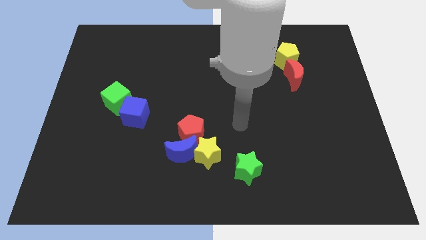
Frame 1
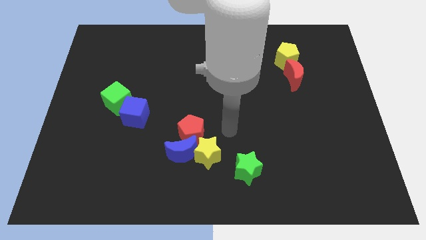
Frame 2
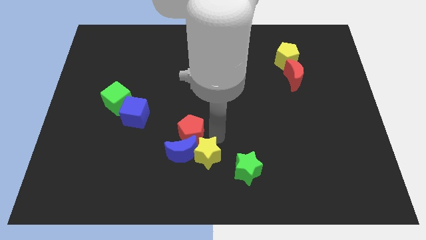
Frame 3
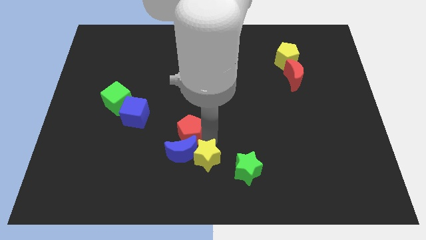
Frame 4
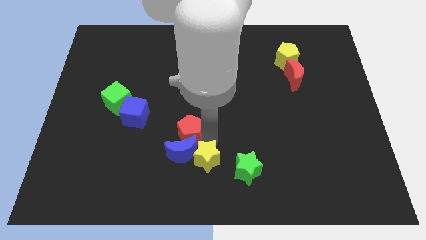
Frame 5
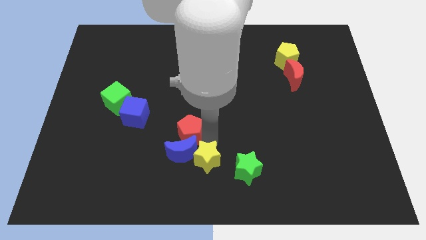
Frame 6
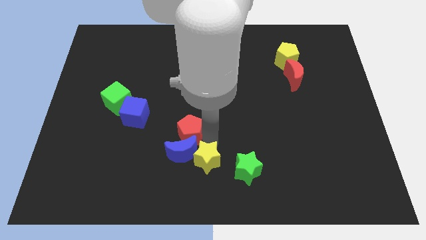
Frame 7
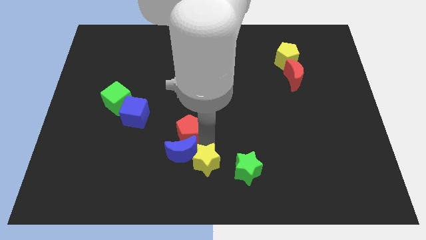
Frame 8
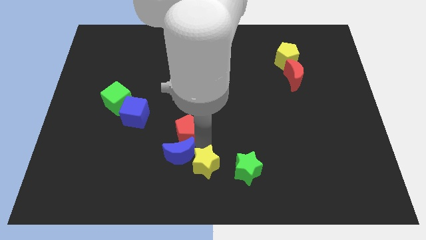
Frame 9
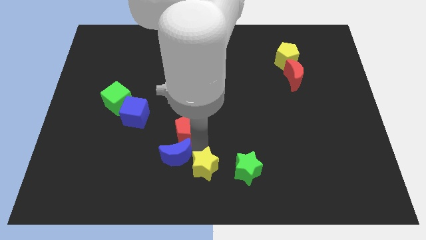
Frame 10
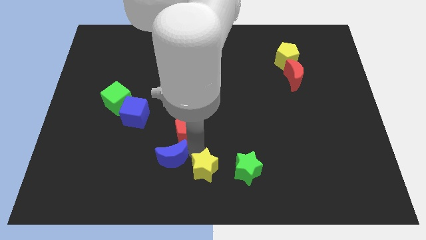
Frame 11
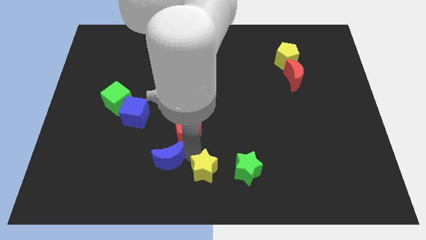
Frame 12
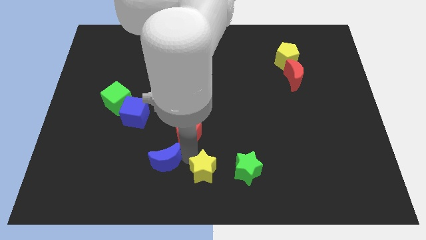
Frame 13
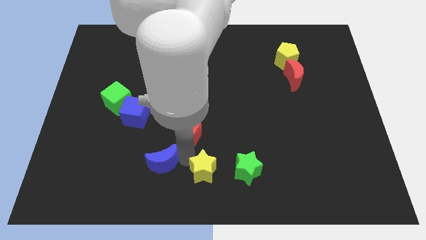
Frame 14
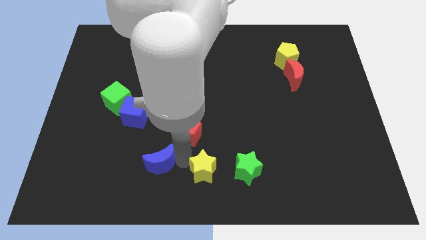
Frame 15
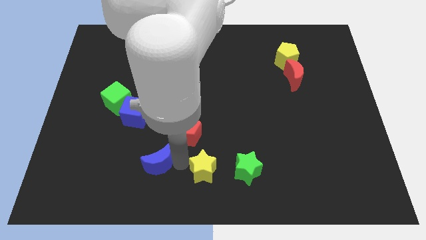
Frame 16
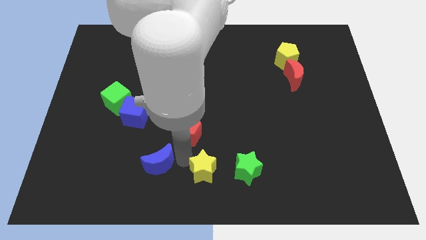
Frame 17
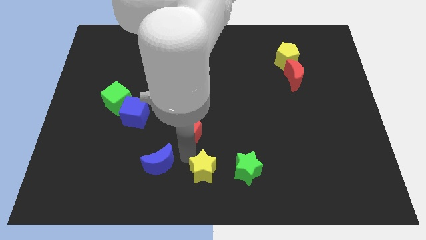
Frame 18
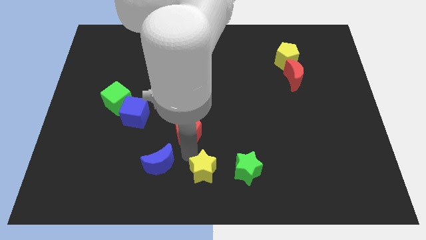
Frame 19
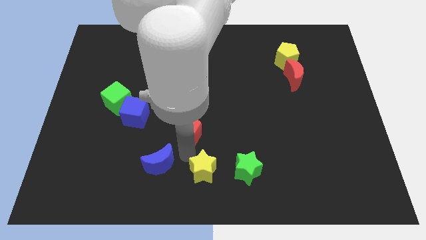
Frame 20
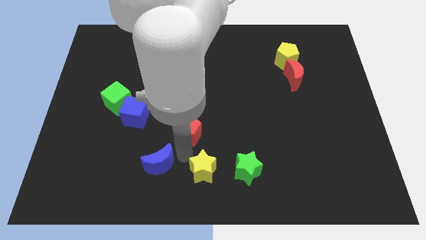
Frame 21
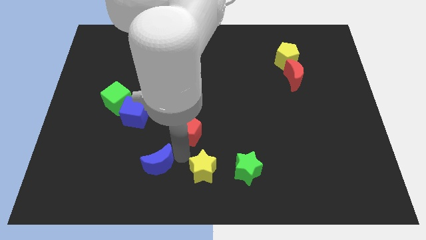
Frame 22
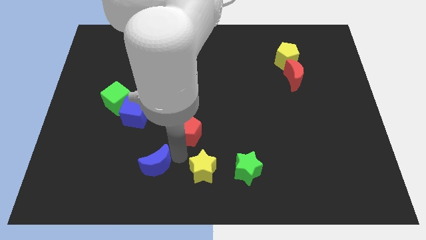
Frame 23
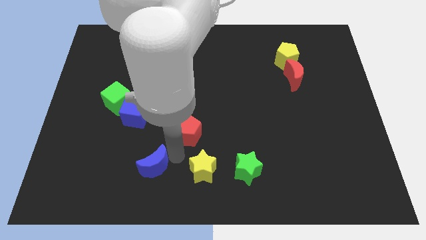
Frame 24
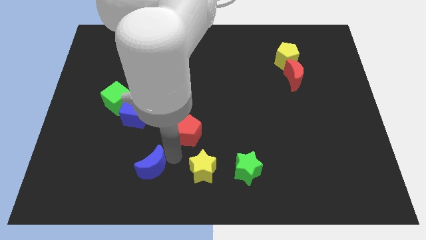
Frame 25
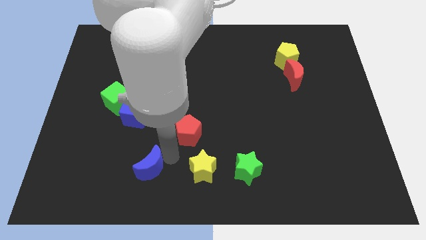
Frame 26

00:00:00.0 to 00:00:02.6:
separate the blue moon from the red pentagon and yellow star

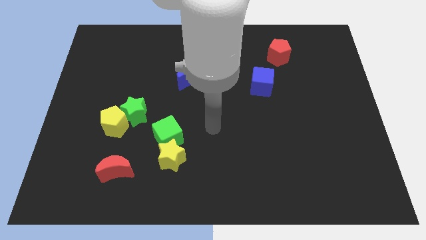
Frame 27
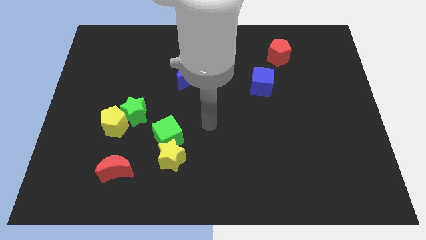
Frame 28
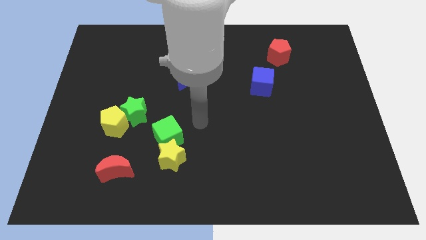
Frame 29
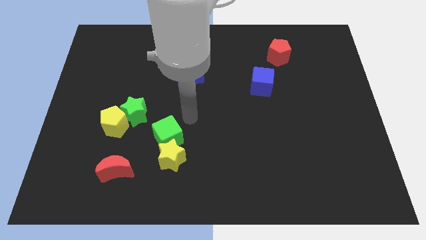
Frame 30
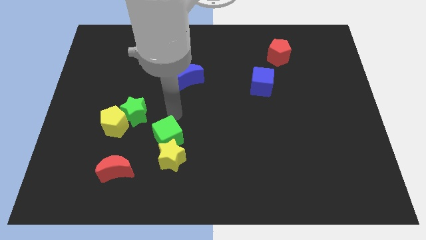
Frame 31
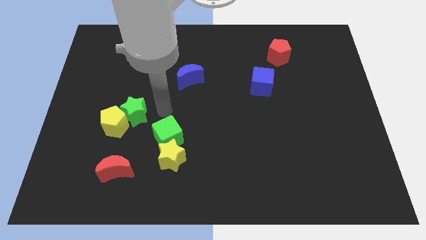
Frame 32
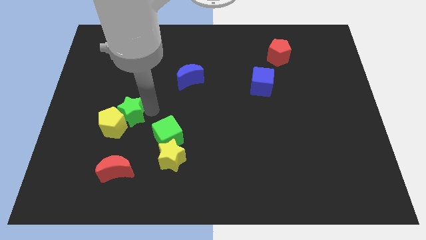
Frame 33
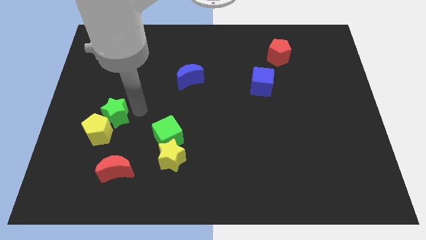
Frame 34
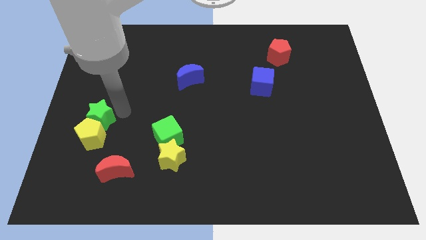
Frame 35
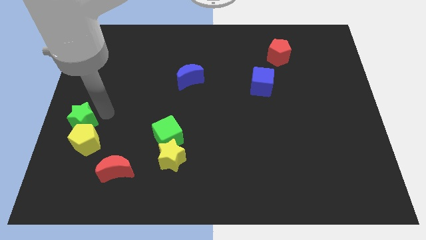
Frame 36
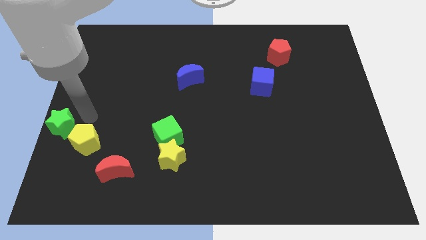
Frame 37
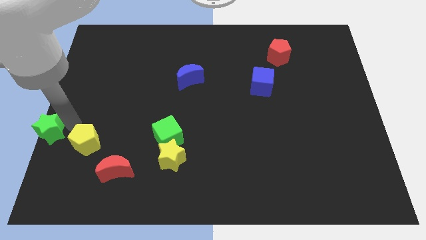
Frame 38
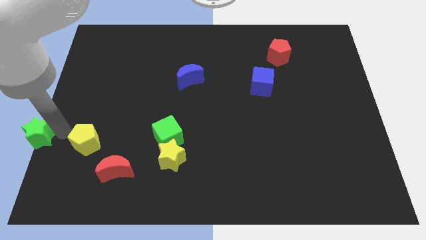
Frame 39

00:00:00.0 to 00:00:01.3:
pull the yellow pentagon apart from the green star

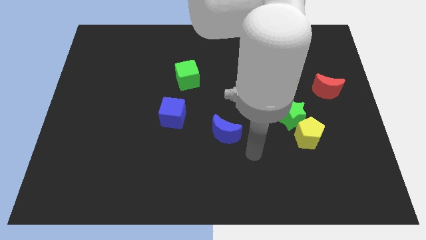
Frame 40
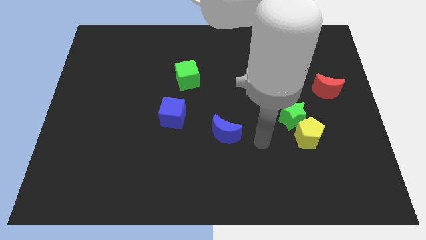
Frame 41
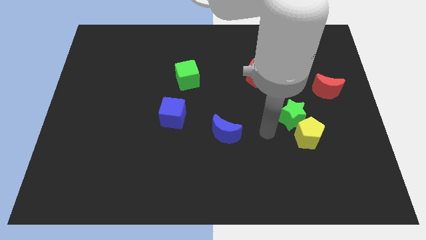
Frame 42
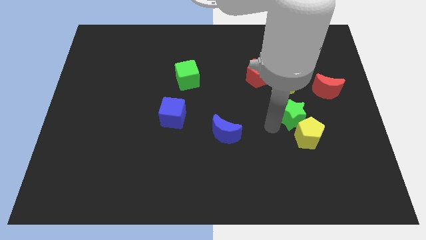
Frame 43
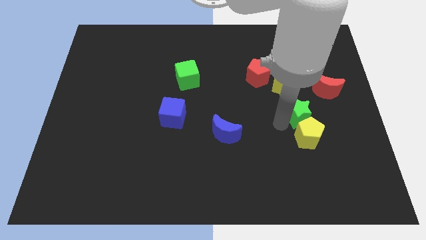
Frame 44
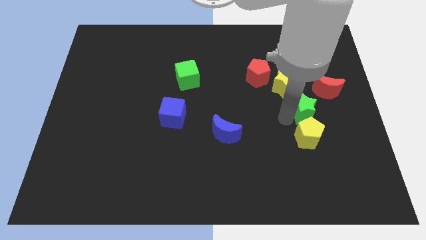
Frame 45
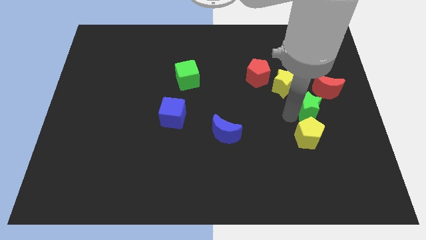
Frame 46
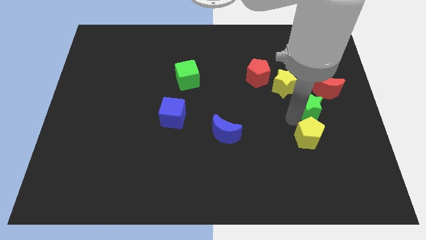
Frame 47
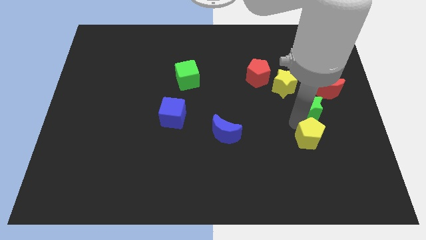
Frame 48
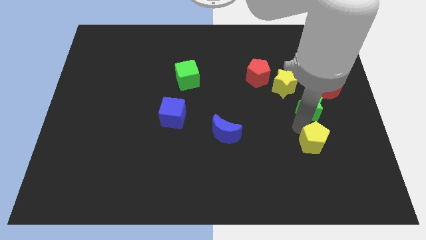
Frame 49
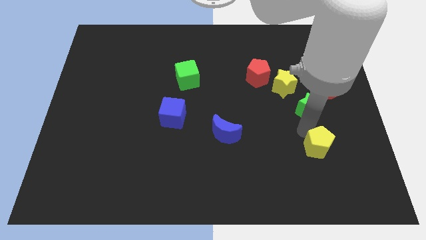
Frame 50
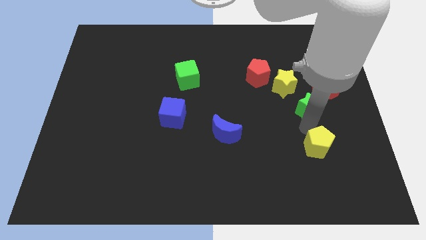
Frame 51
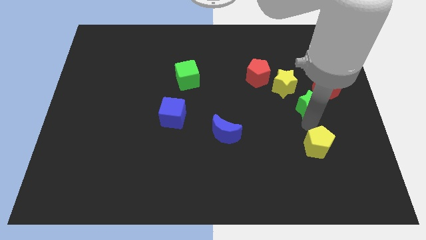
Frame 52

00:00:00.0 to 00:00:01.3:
separate the yellow pentagon from the green star

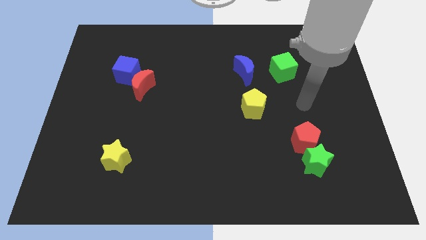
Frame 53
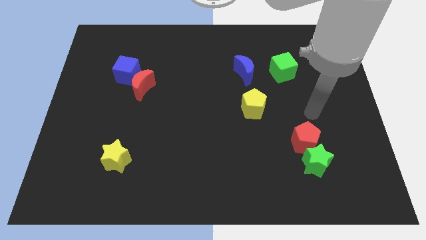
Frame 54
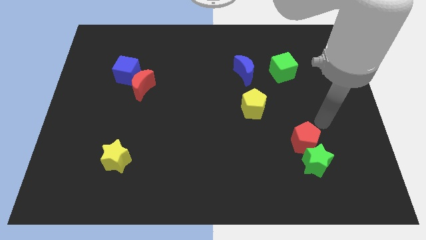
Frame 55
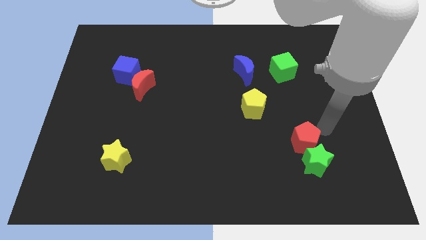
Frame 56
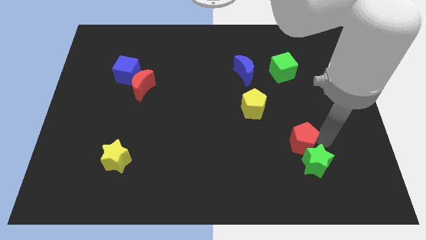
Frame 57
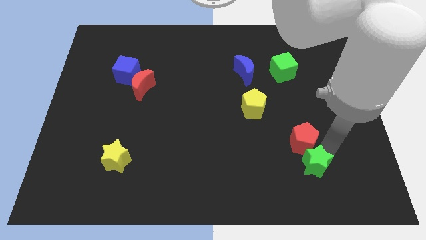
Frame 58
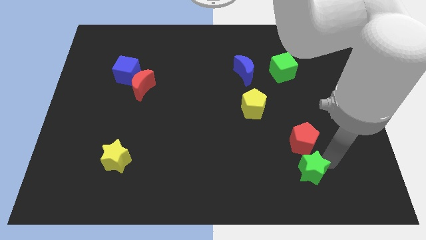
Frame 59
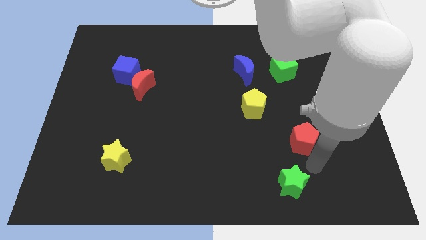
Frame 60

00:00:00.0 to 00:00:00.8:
pull the red pentagon apart from the green star

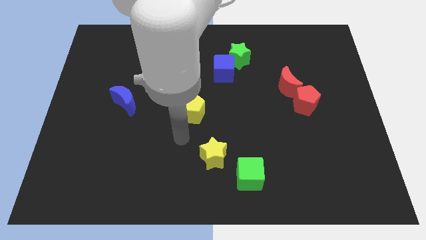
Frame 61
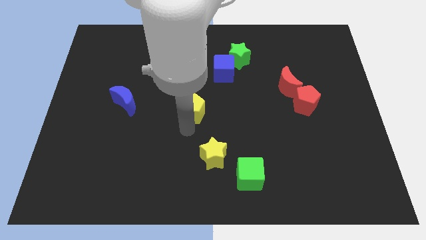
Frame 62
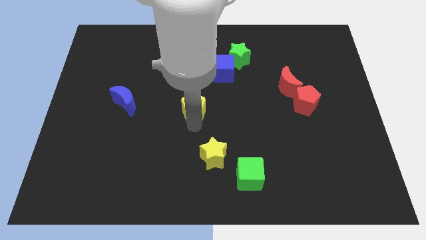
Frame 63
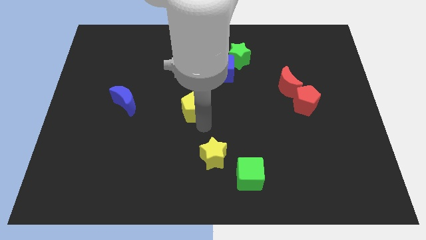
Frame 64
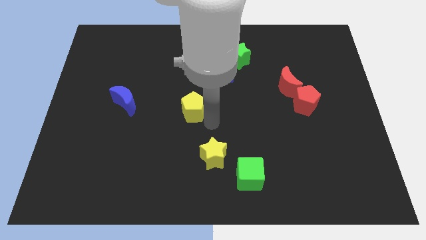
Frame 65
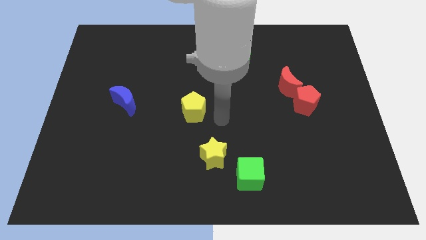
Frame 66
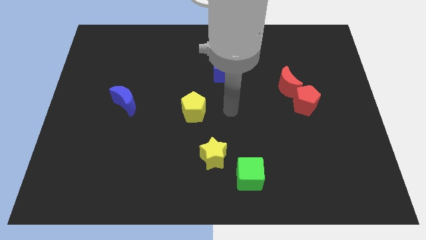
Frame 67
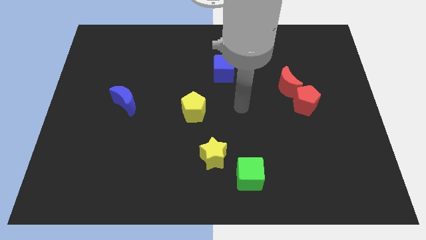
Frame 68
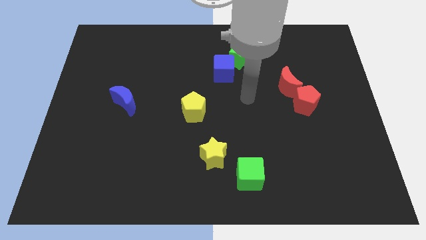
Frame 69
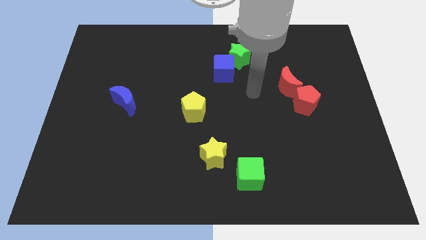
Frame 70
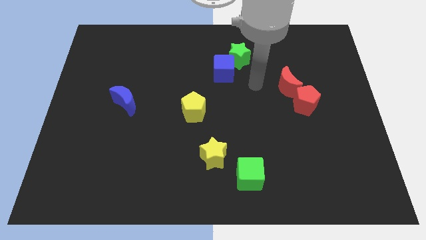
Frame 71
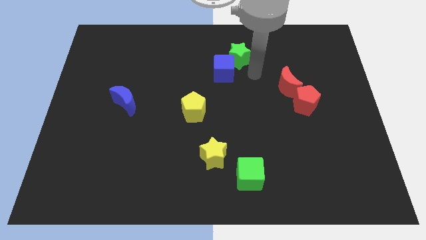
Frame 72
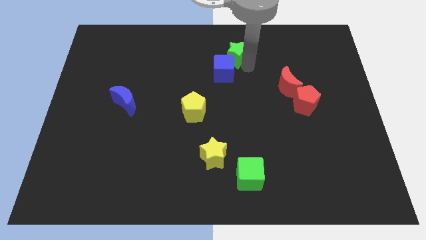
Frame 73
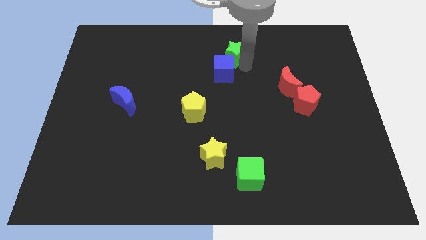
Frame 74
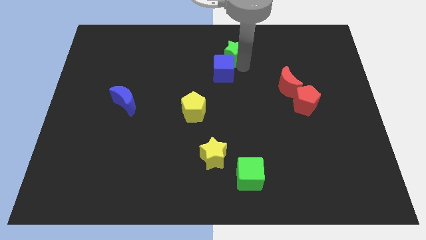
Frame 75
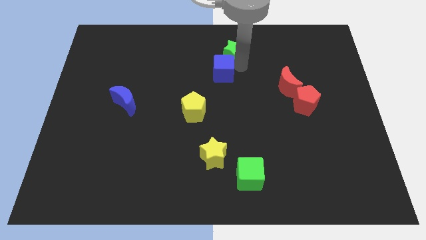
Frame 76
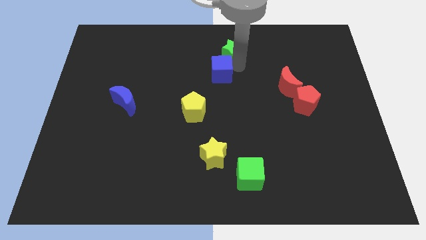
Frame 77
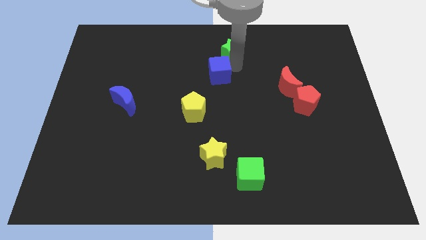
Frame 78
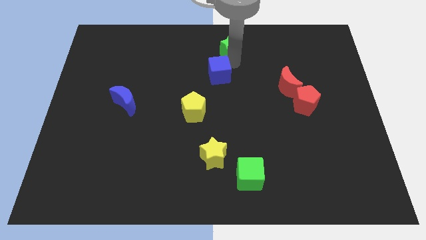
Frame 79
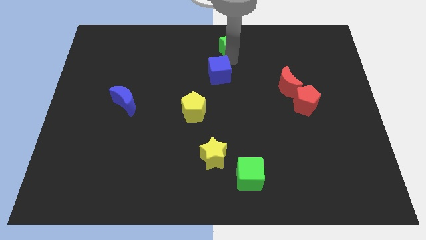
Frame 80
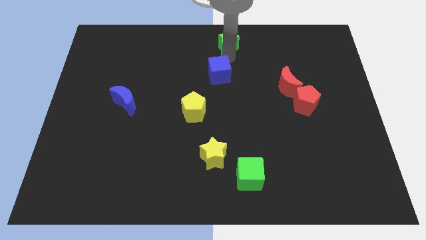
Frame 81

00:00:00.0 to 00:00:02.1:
pull the blue cube apart from the green star

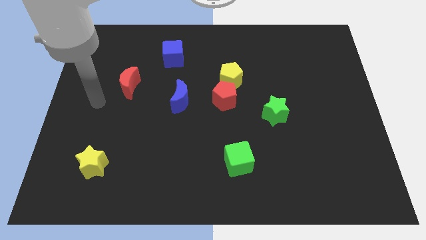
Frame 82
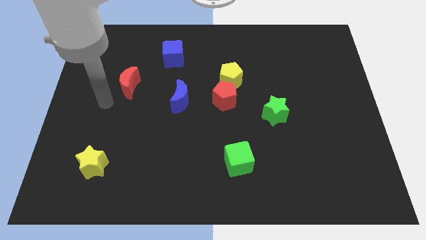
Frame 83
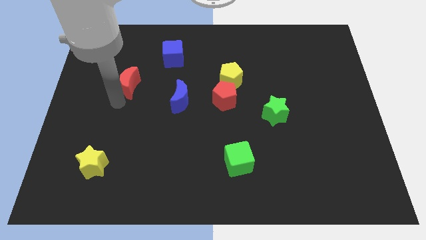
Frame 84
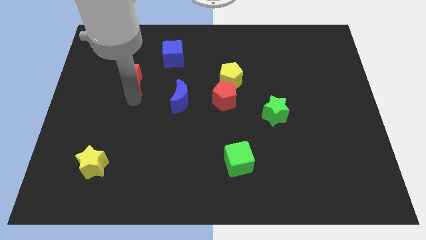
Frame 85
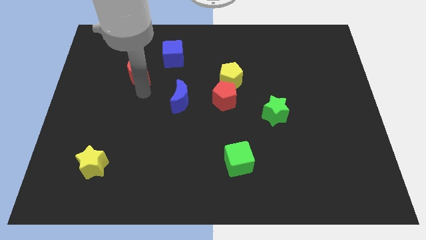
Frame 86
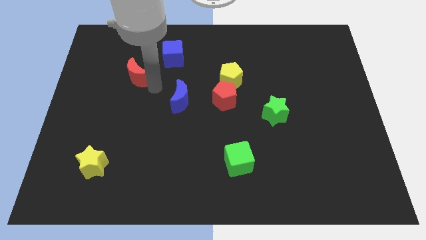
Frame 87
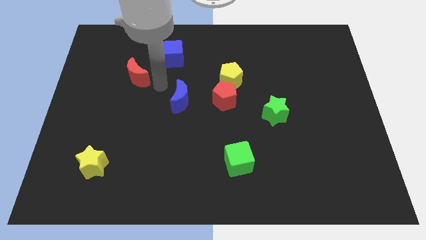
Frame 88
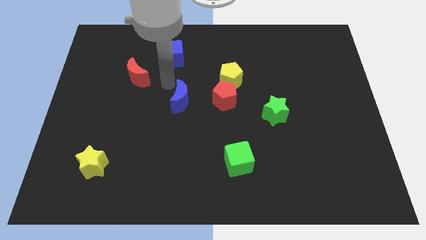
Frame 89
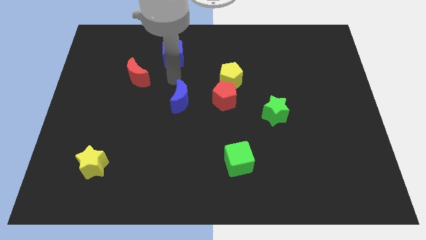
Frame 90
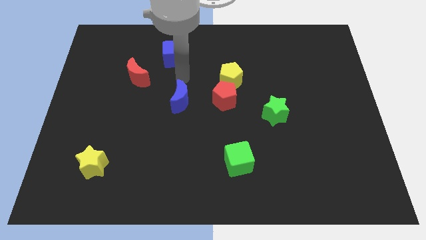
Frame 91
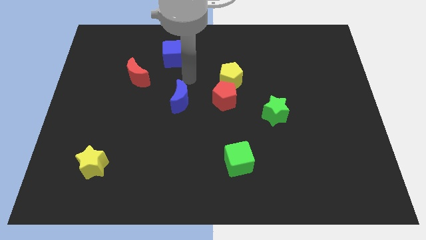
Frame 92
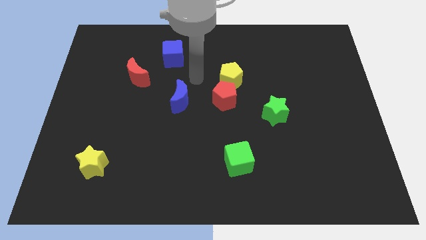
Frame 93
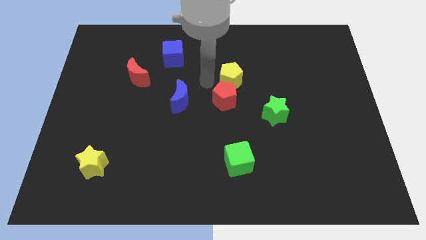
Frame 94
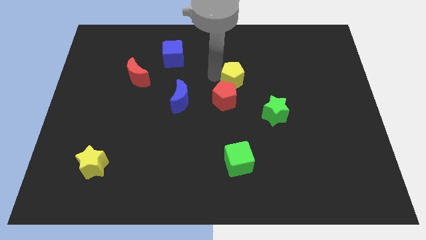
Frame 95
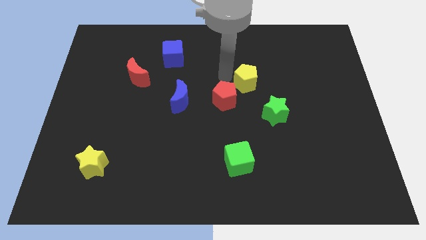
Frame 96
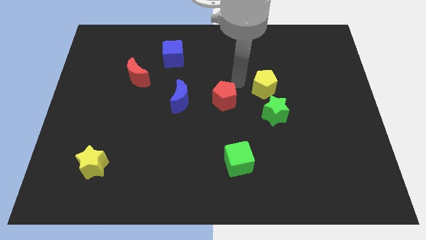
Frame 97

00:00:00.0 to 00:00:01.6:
pull the red pentagon apart from the yellow pentagon
